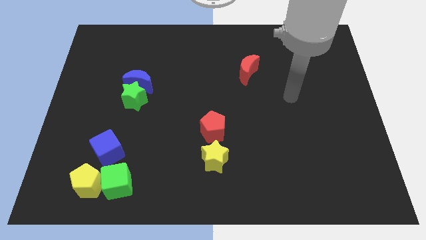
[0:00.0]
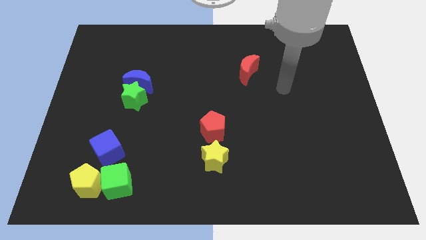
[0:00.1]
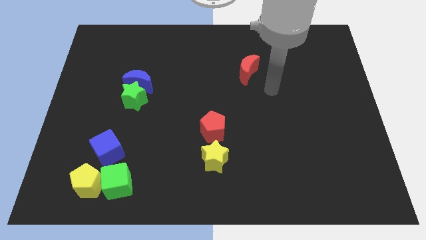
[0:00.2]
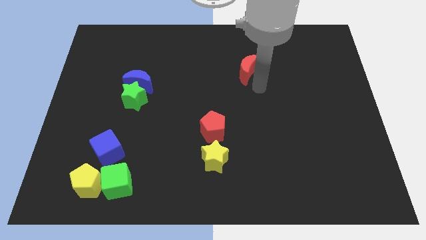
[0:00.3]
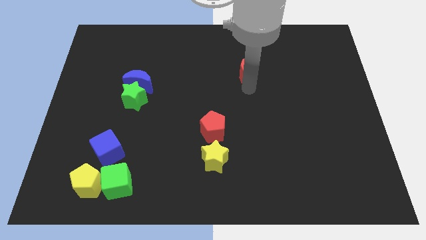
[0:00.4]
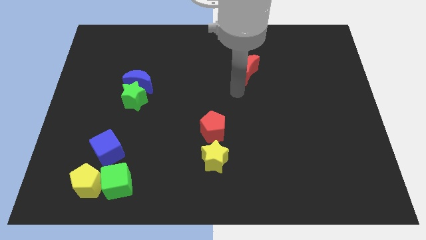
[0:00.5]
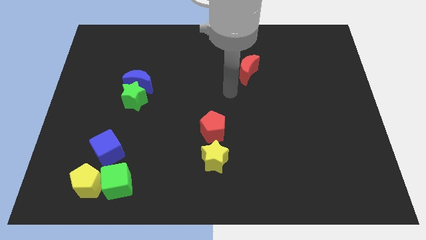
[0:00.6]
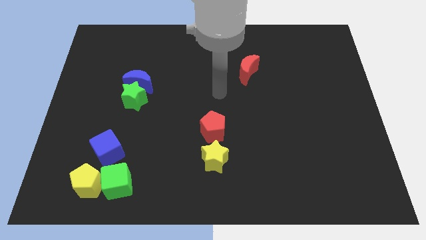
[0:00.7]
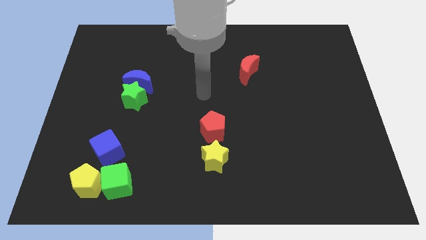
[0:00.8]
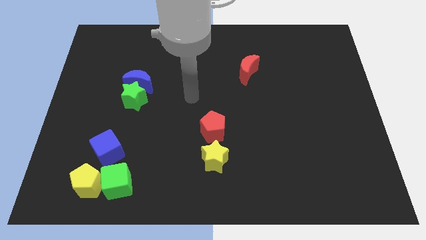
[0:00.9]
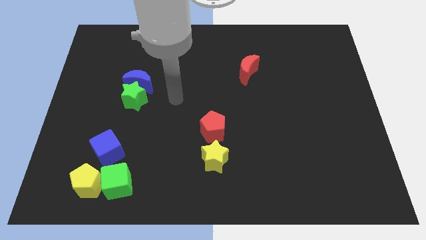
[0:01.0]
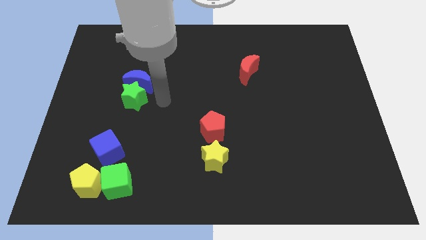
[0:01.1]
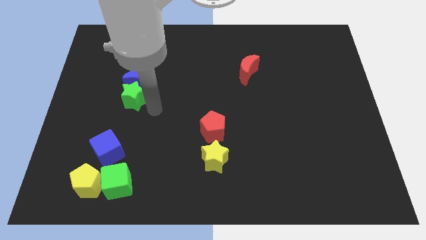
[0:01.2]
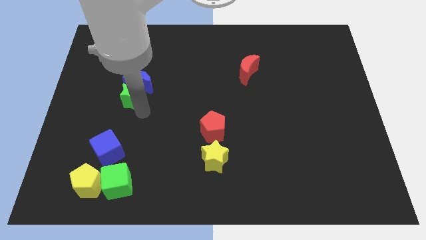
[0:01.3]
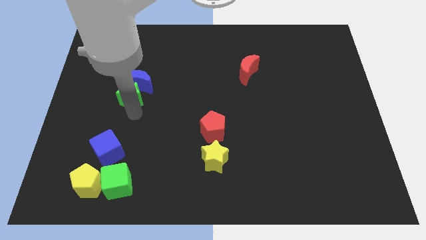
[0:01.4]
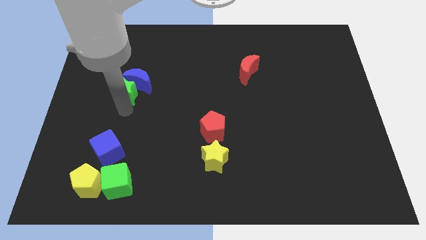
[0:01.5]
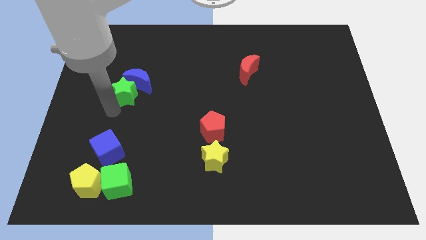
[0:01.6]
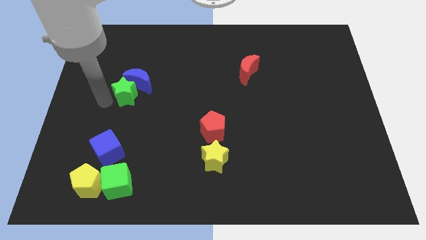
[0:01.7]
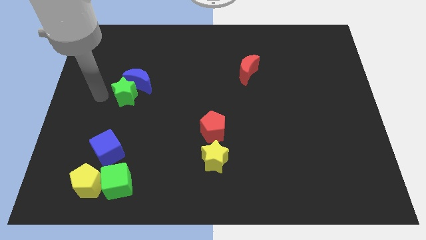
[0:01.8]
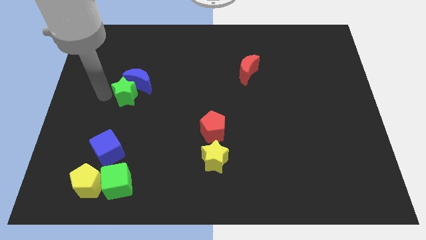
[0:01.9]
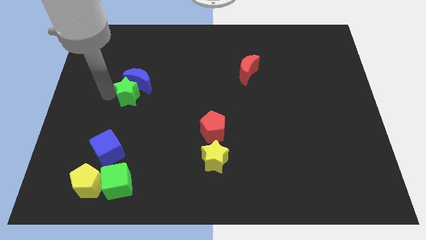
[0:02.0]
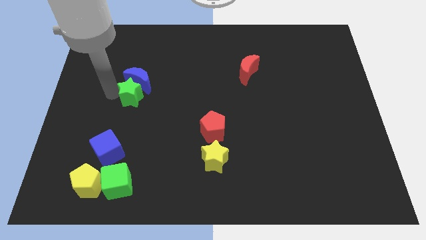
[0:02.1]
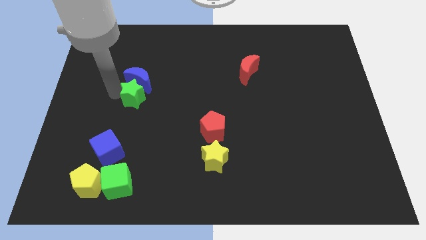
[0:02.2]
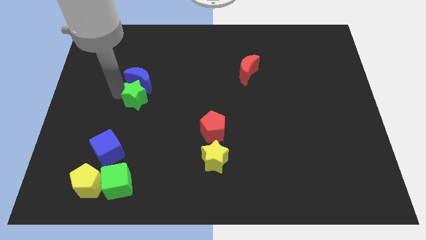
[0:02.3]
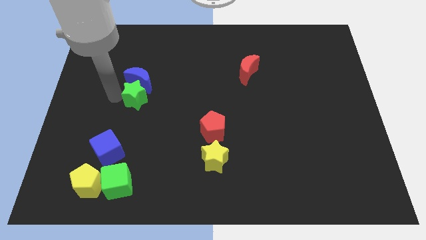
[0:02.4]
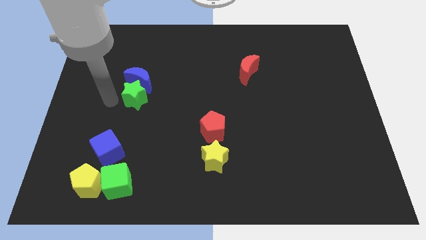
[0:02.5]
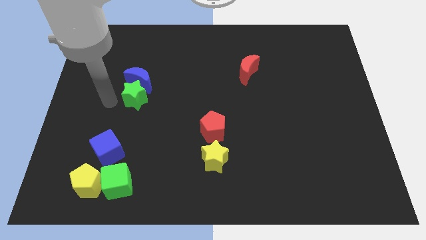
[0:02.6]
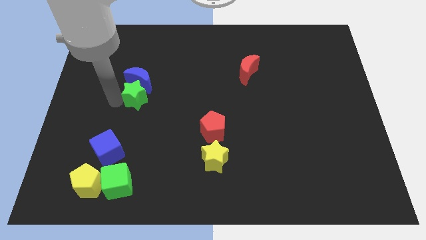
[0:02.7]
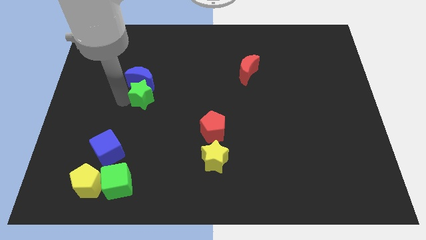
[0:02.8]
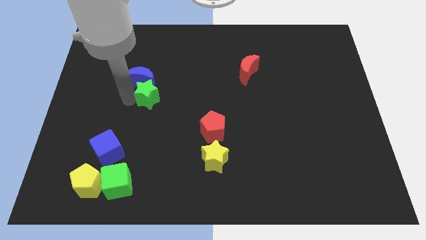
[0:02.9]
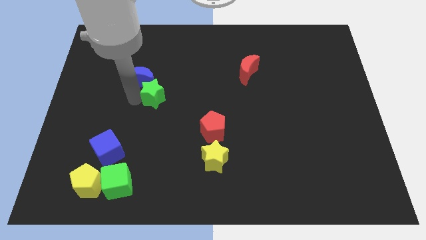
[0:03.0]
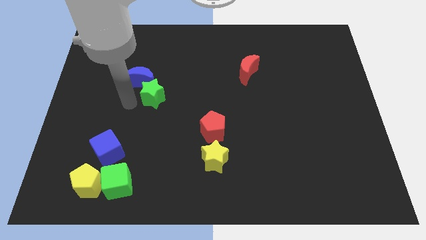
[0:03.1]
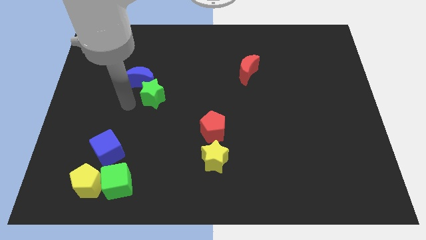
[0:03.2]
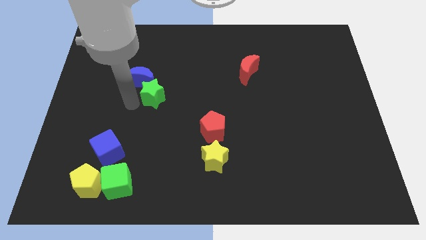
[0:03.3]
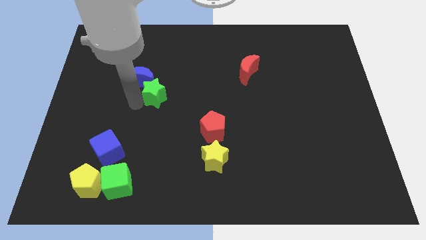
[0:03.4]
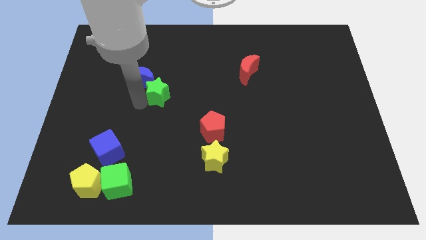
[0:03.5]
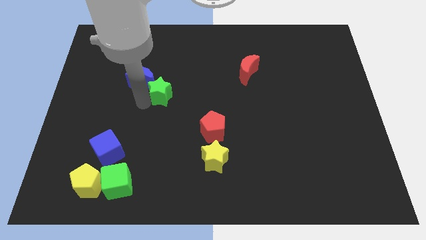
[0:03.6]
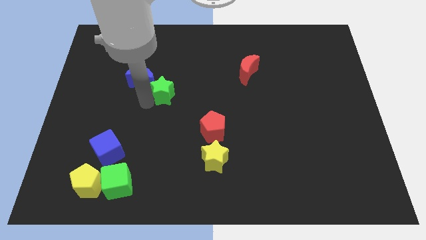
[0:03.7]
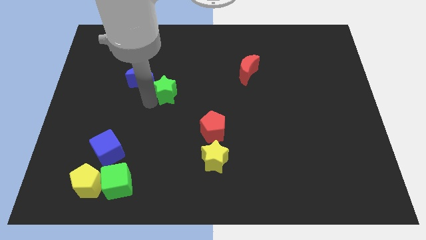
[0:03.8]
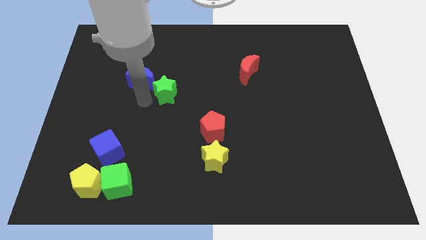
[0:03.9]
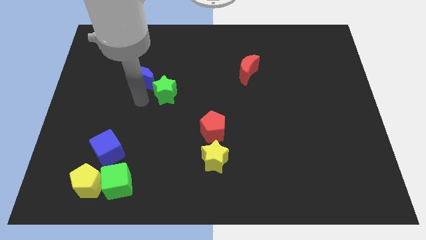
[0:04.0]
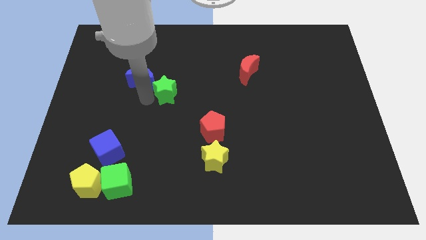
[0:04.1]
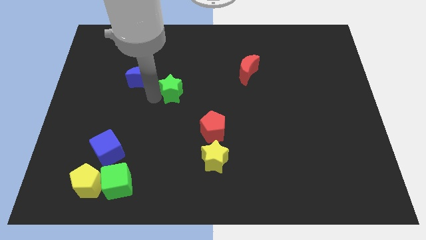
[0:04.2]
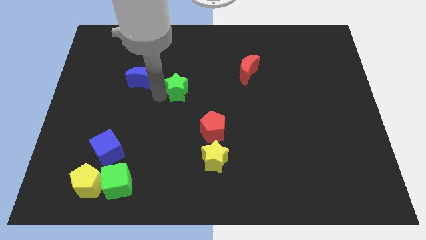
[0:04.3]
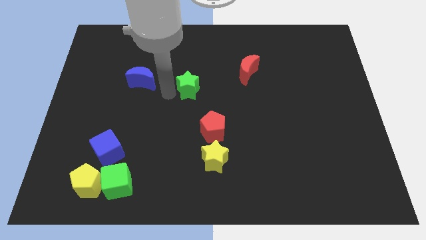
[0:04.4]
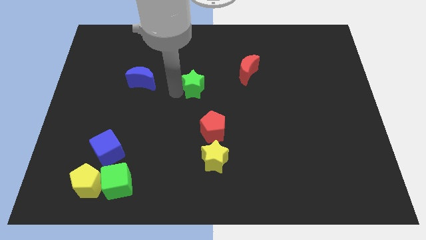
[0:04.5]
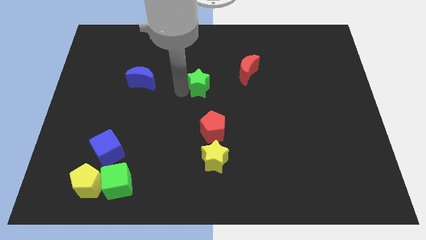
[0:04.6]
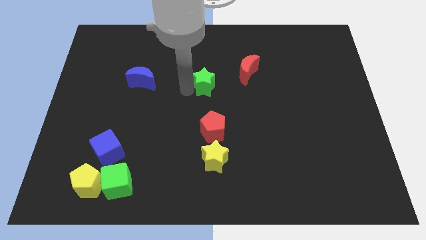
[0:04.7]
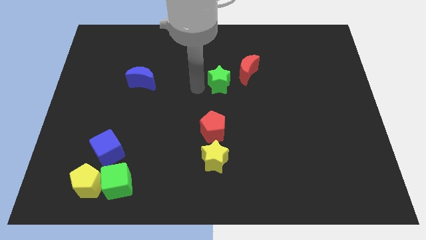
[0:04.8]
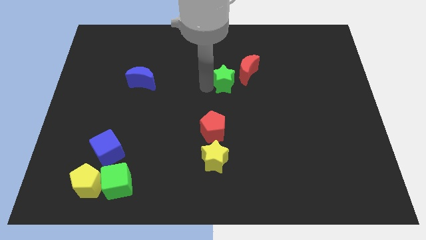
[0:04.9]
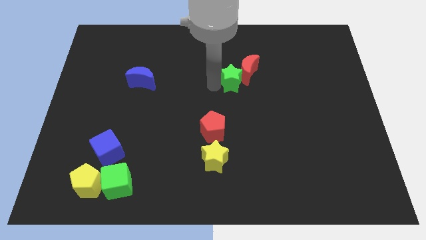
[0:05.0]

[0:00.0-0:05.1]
push the green star towards the red moon

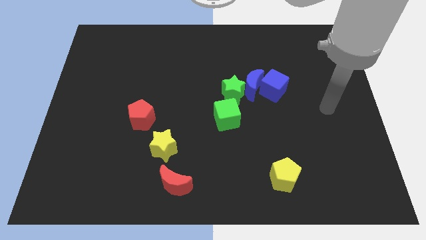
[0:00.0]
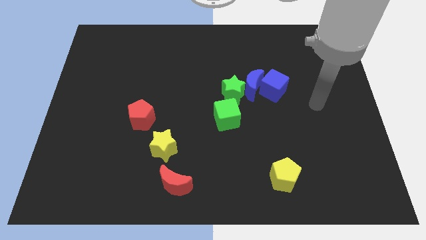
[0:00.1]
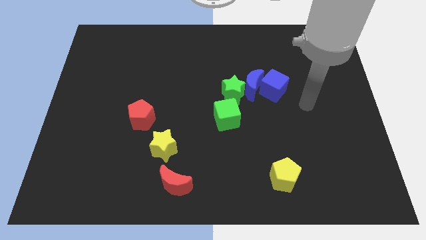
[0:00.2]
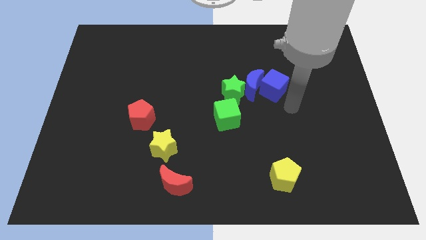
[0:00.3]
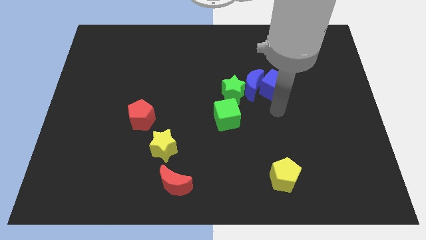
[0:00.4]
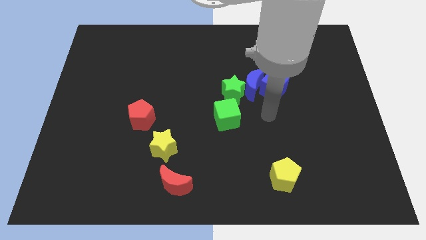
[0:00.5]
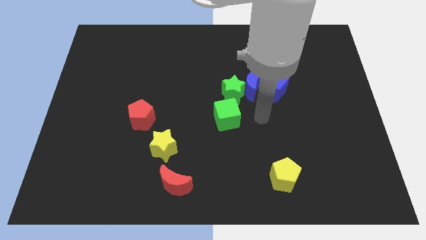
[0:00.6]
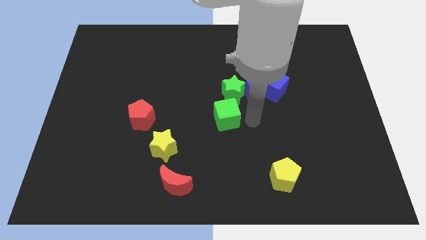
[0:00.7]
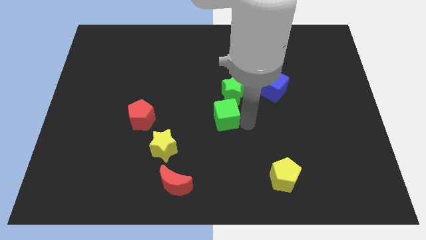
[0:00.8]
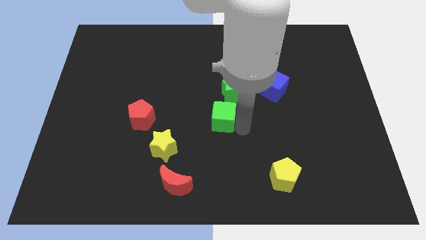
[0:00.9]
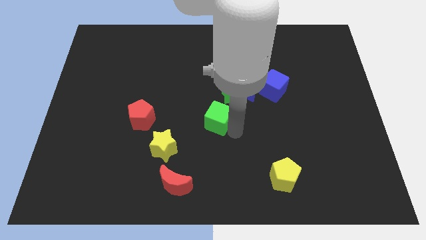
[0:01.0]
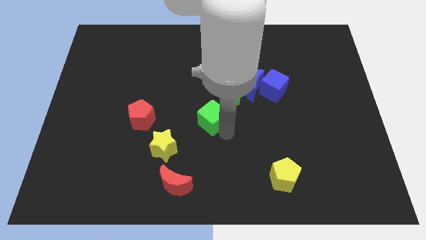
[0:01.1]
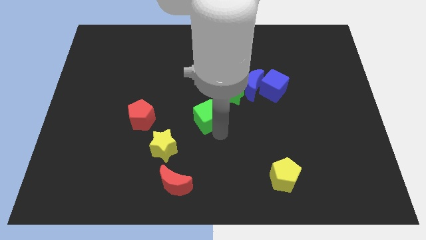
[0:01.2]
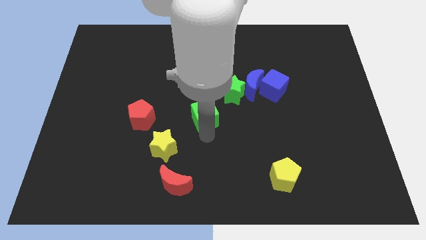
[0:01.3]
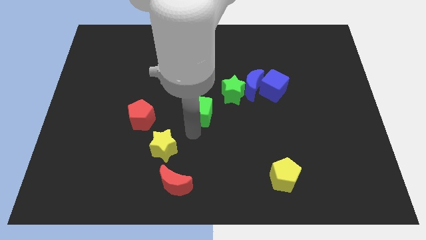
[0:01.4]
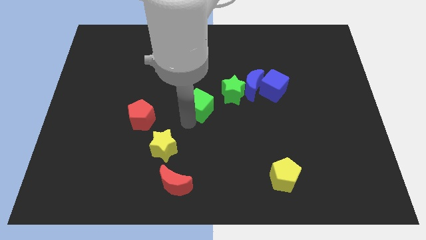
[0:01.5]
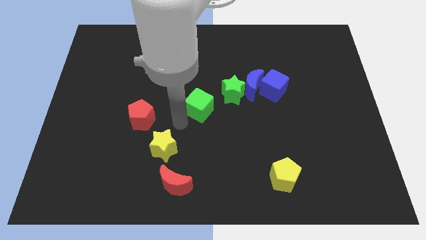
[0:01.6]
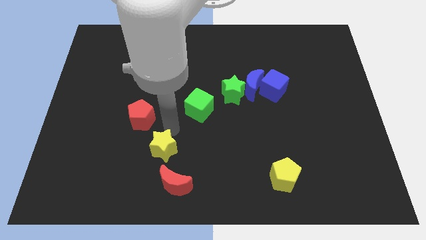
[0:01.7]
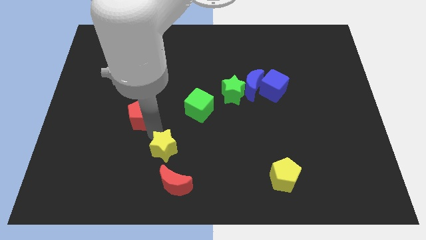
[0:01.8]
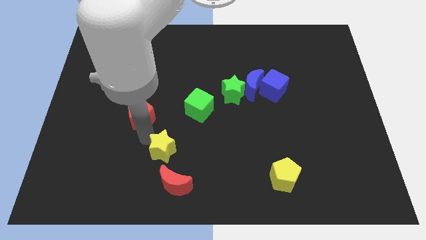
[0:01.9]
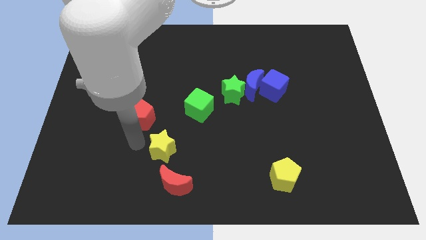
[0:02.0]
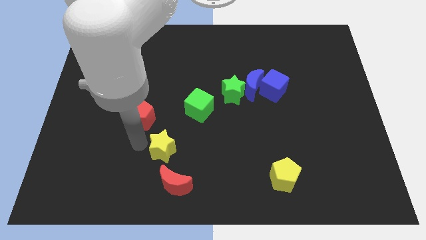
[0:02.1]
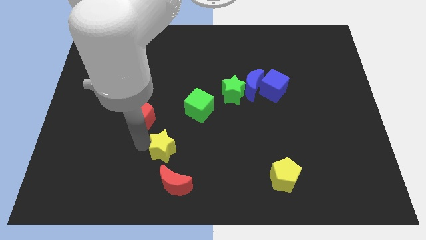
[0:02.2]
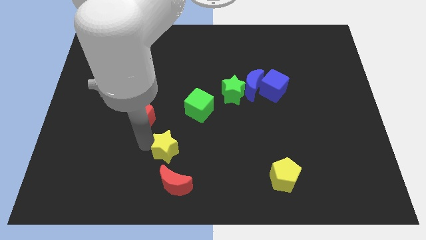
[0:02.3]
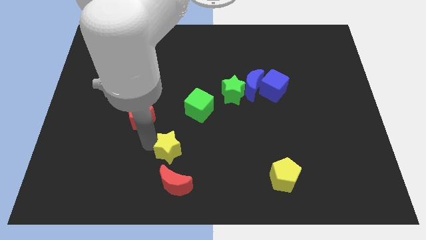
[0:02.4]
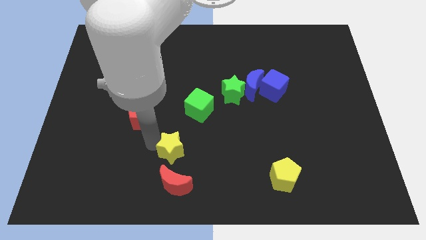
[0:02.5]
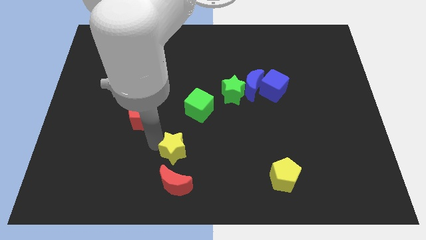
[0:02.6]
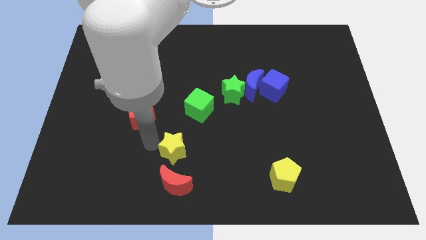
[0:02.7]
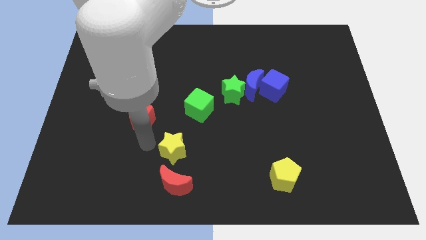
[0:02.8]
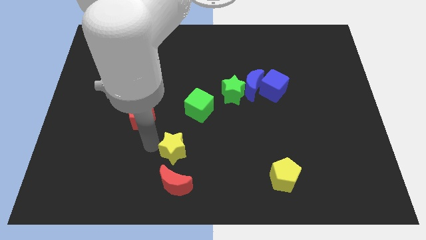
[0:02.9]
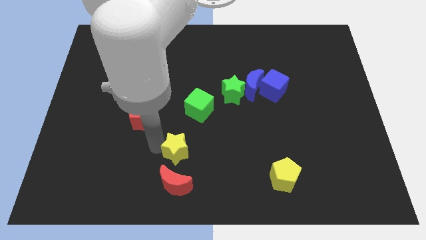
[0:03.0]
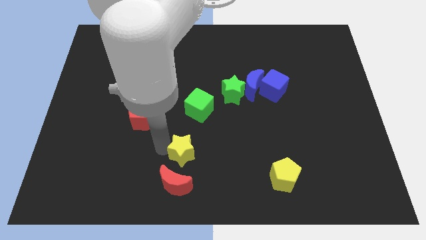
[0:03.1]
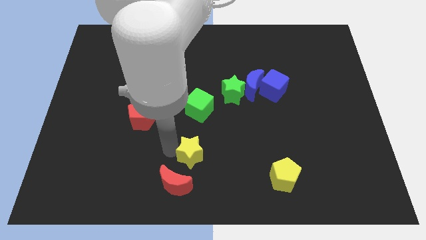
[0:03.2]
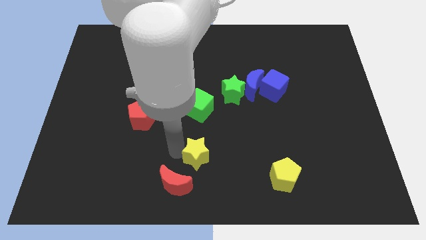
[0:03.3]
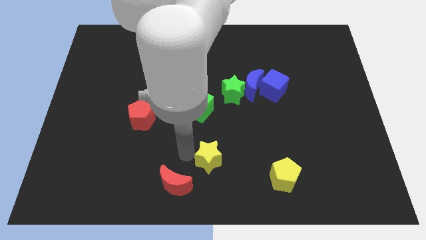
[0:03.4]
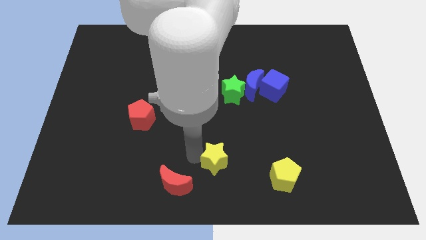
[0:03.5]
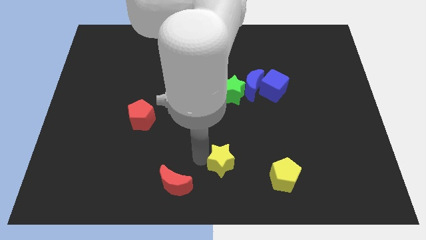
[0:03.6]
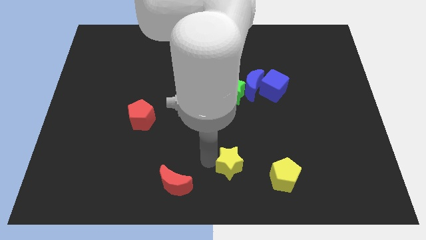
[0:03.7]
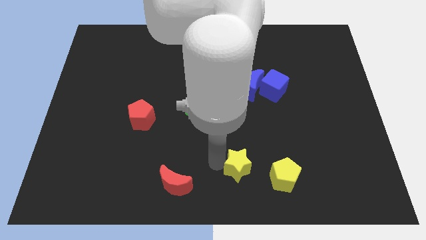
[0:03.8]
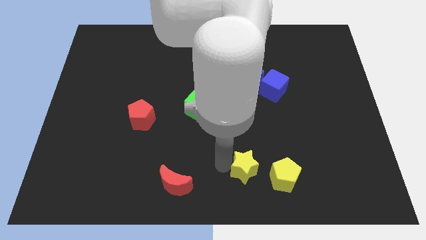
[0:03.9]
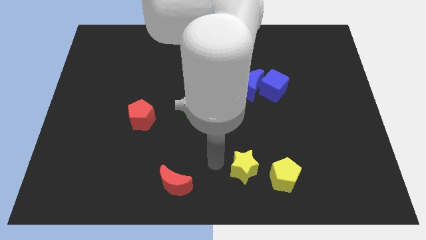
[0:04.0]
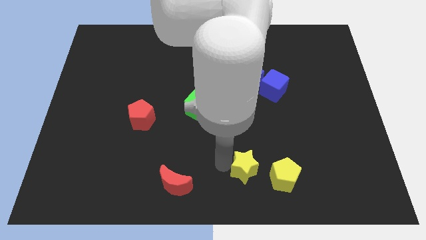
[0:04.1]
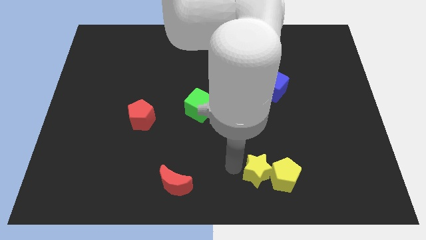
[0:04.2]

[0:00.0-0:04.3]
move the yellow star next to the yellow pentagon
